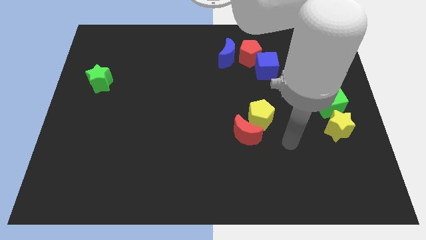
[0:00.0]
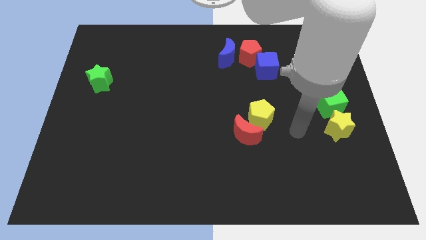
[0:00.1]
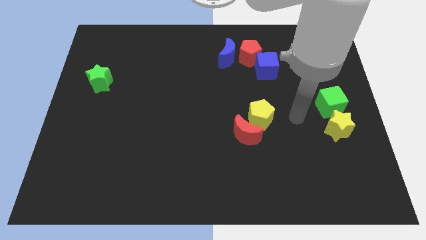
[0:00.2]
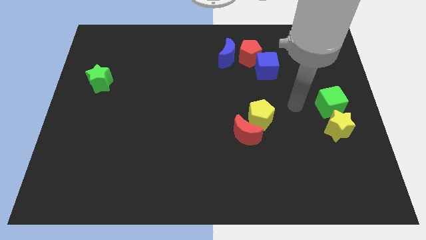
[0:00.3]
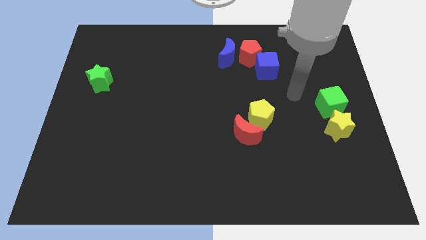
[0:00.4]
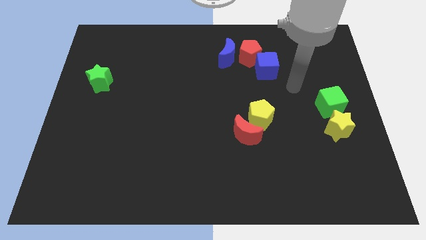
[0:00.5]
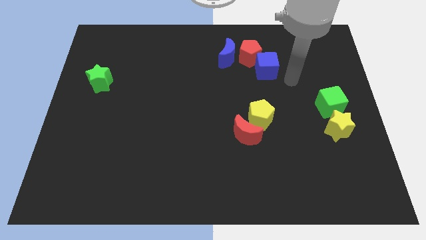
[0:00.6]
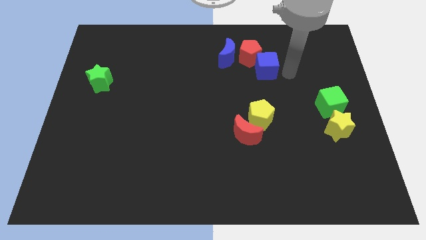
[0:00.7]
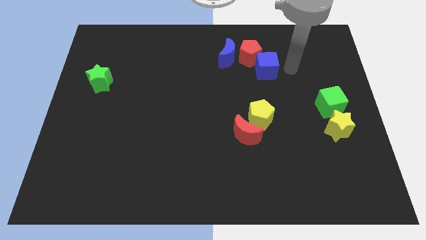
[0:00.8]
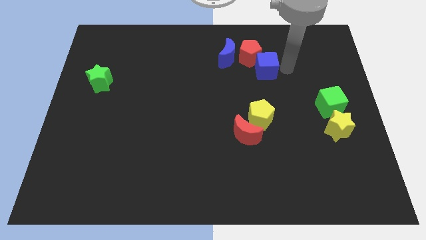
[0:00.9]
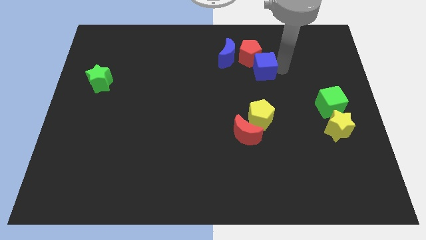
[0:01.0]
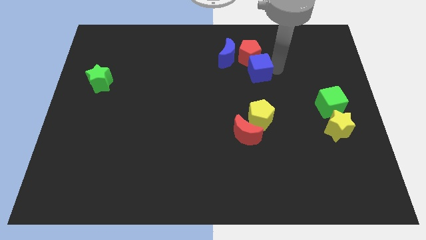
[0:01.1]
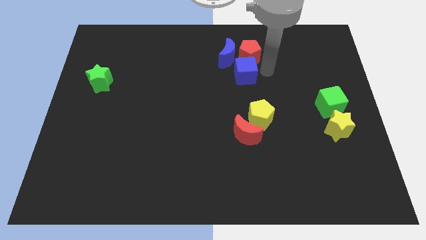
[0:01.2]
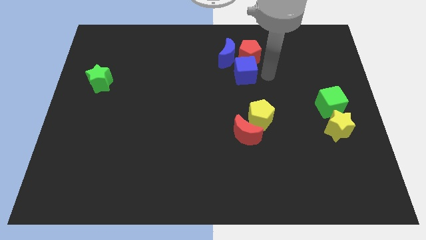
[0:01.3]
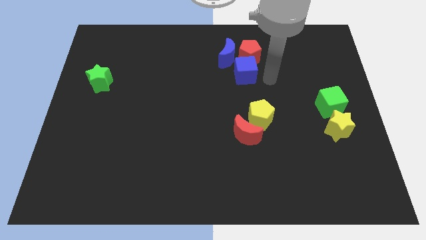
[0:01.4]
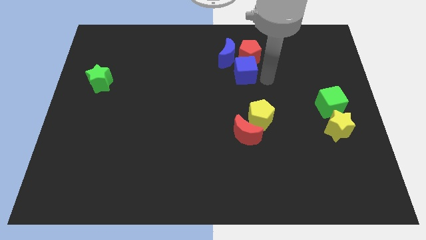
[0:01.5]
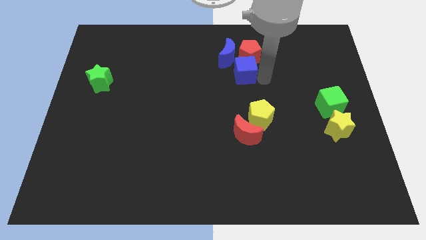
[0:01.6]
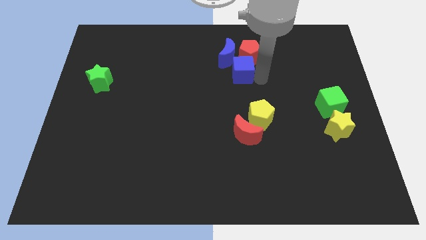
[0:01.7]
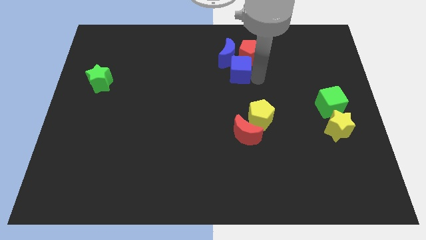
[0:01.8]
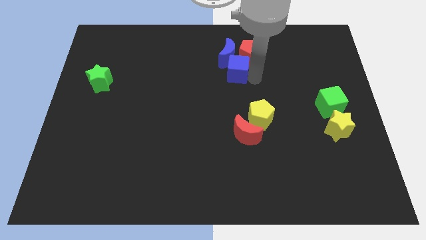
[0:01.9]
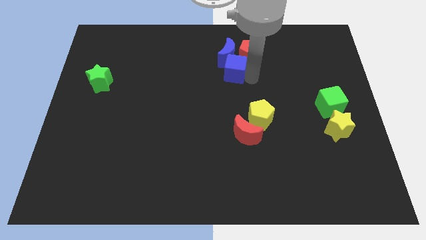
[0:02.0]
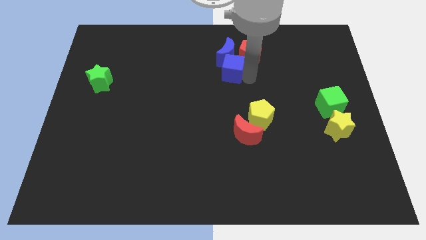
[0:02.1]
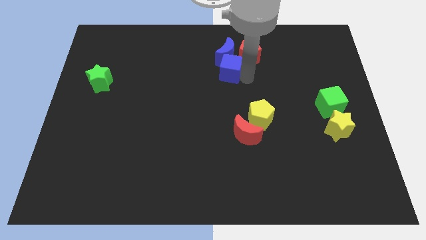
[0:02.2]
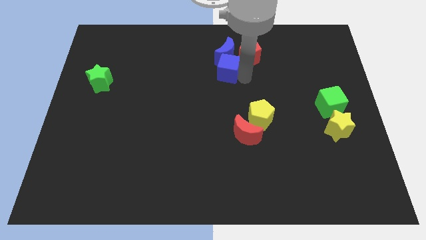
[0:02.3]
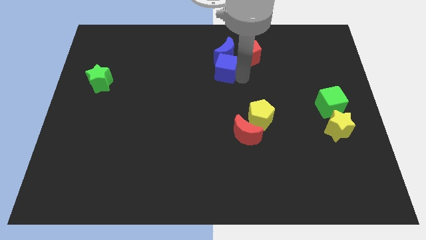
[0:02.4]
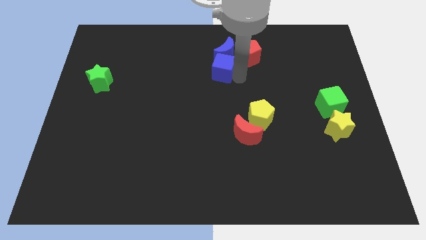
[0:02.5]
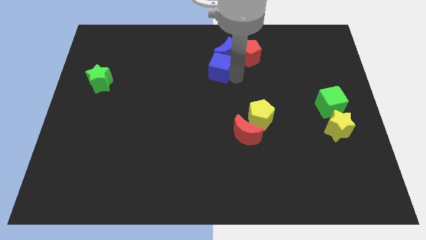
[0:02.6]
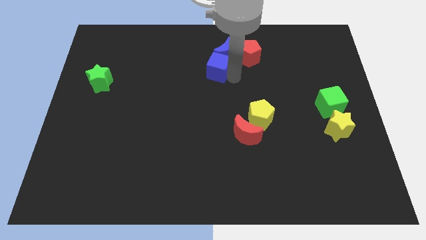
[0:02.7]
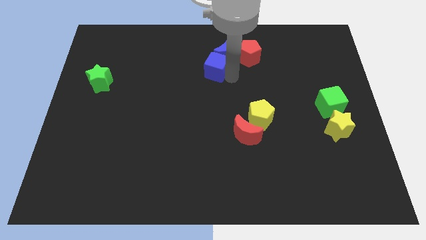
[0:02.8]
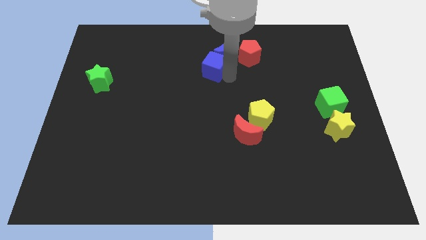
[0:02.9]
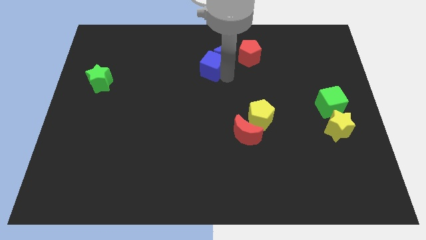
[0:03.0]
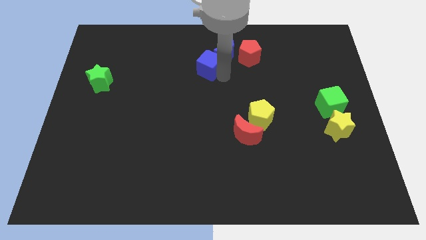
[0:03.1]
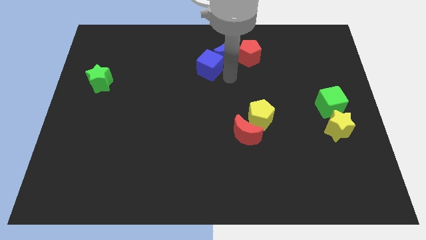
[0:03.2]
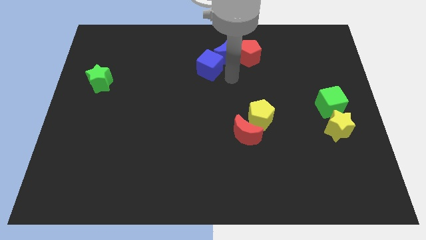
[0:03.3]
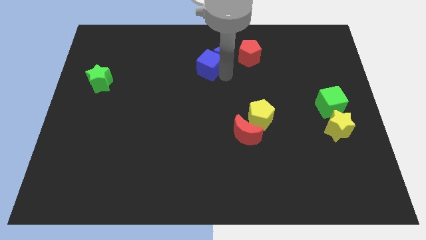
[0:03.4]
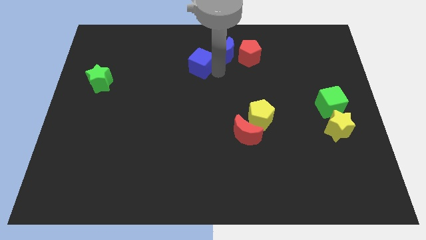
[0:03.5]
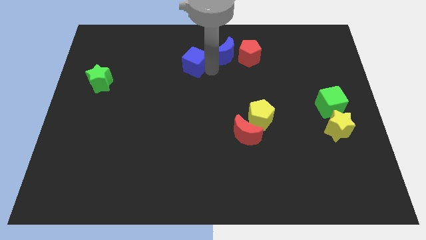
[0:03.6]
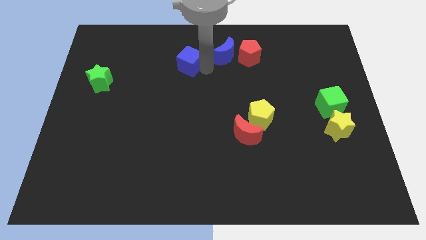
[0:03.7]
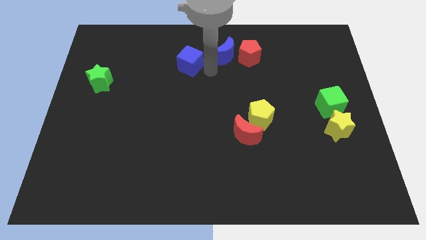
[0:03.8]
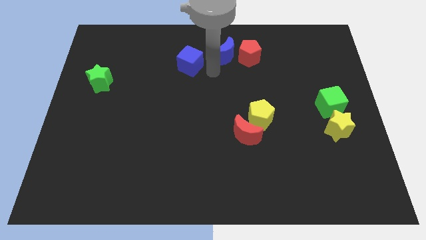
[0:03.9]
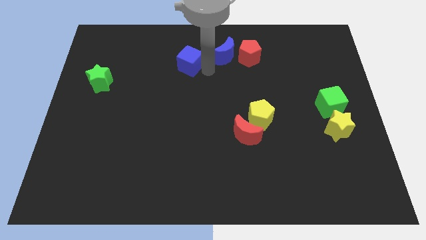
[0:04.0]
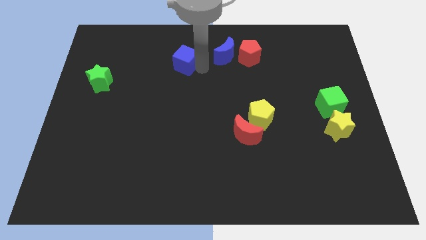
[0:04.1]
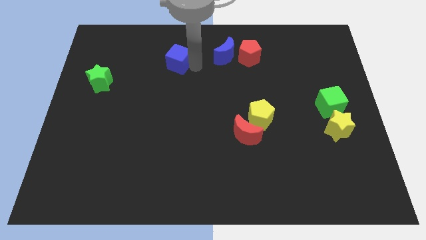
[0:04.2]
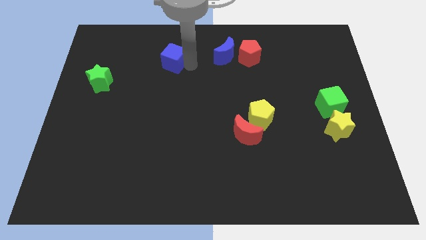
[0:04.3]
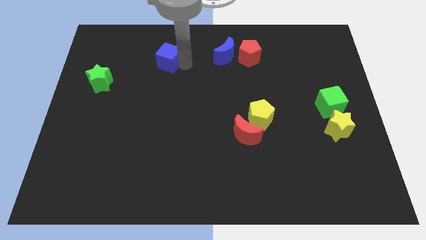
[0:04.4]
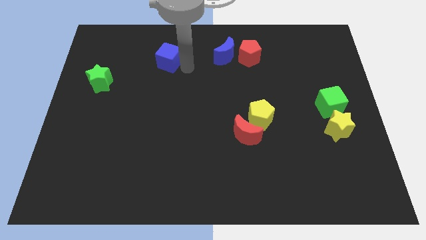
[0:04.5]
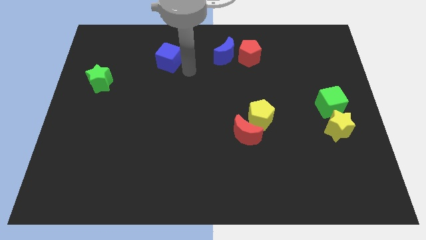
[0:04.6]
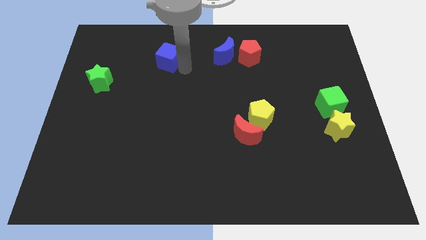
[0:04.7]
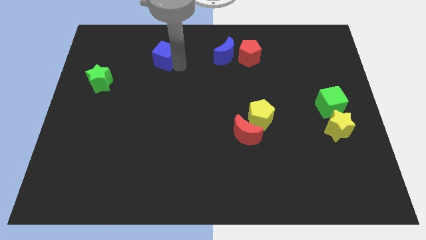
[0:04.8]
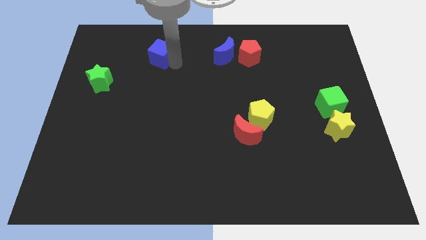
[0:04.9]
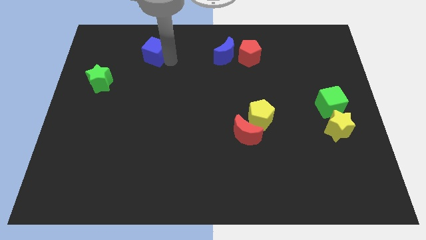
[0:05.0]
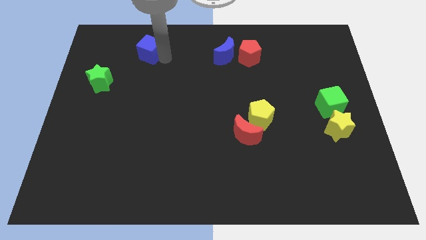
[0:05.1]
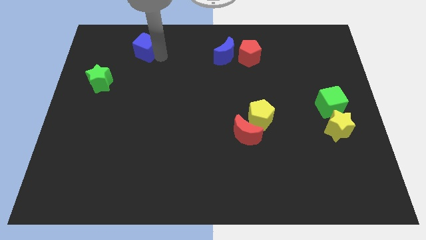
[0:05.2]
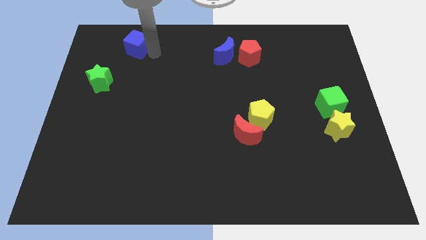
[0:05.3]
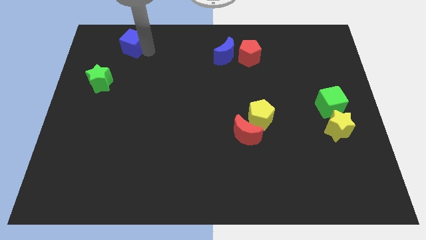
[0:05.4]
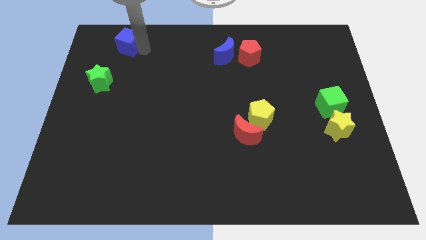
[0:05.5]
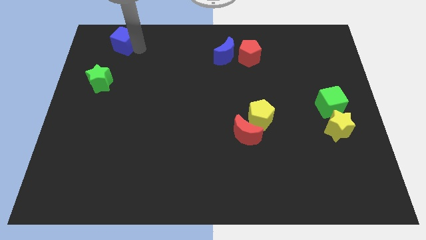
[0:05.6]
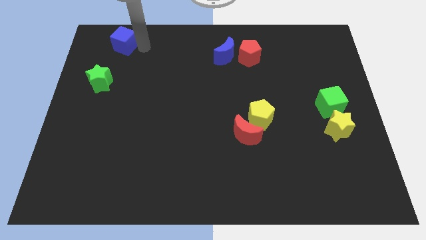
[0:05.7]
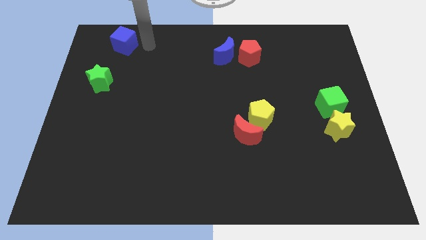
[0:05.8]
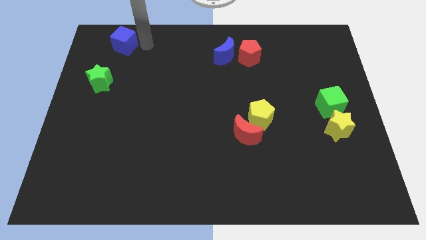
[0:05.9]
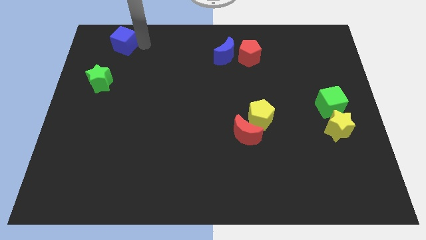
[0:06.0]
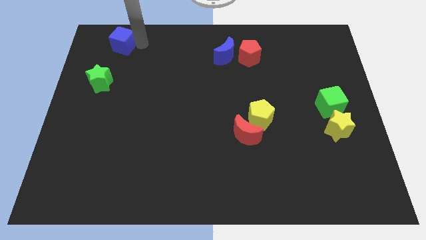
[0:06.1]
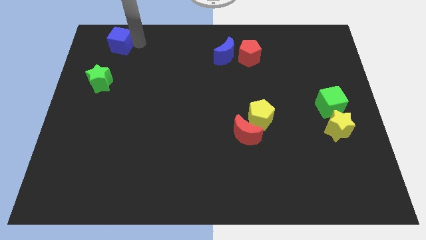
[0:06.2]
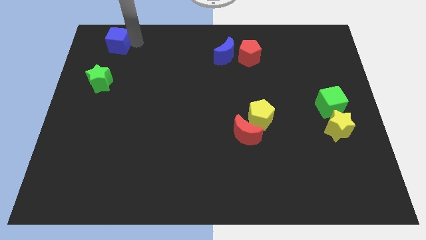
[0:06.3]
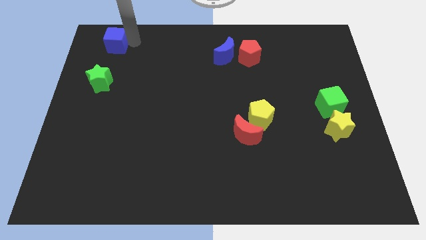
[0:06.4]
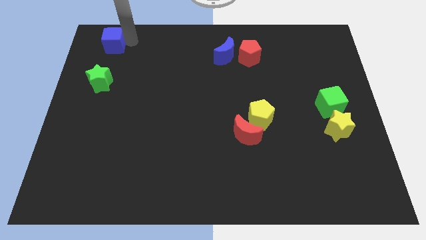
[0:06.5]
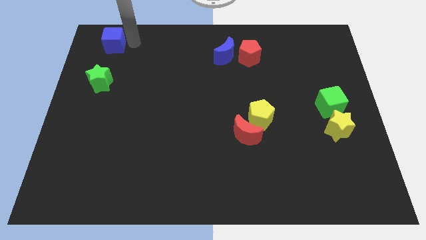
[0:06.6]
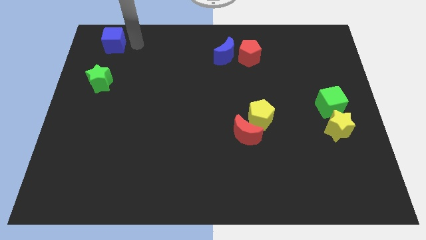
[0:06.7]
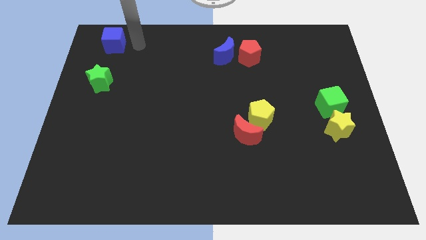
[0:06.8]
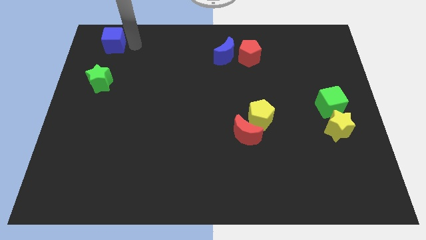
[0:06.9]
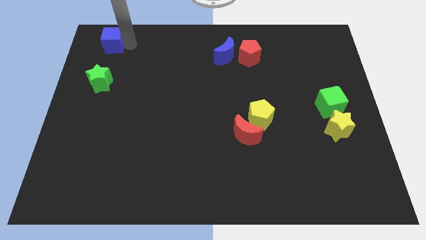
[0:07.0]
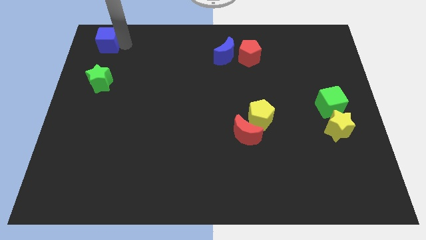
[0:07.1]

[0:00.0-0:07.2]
slide the blue cube to the upper left corner
